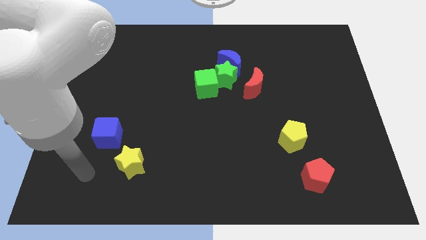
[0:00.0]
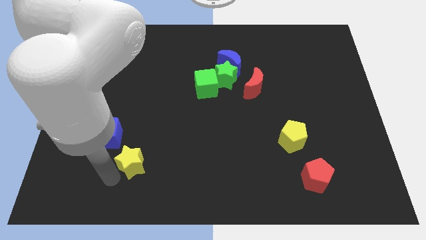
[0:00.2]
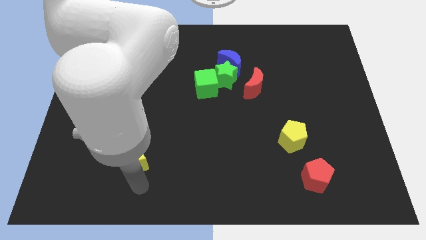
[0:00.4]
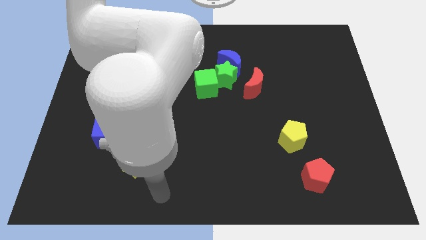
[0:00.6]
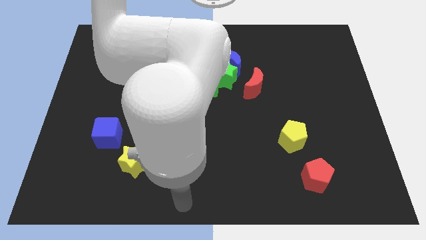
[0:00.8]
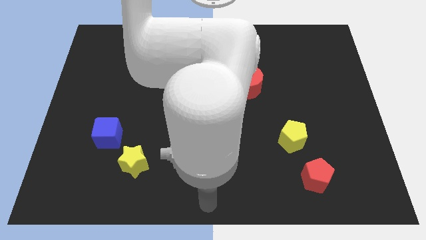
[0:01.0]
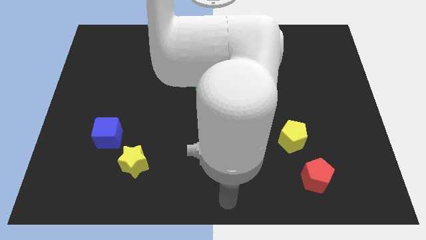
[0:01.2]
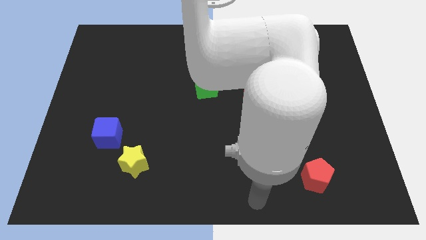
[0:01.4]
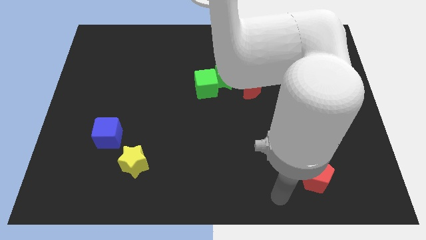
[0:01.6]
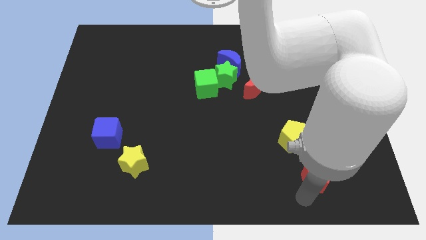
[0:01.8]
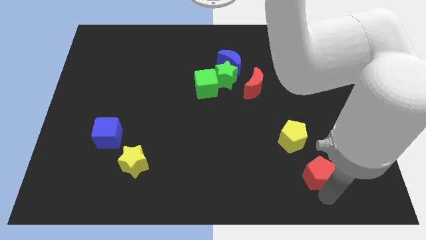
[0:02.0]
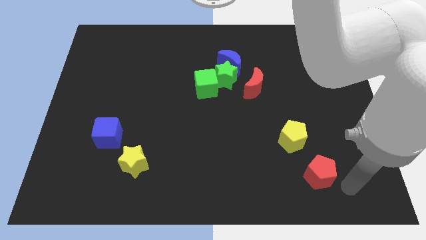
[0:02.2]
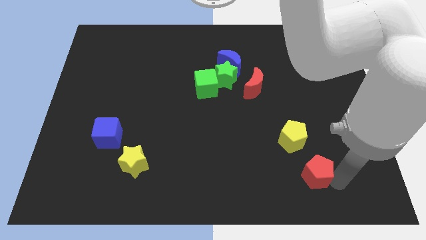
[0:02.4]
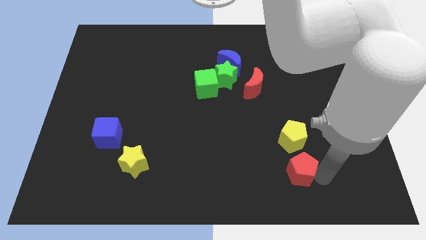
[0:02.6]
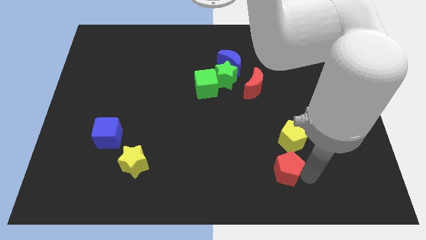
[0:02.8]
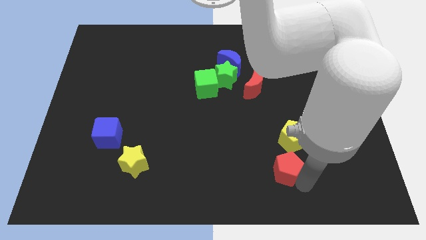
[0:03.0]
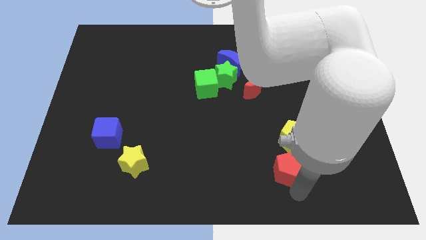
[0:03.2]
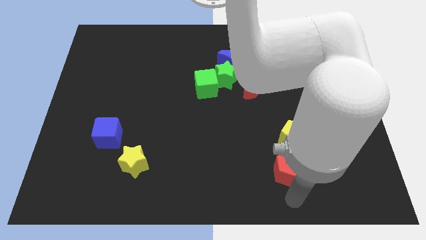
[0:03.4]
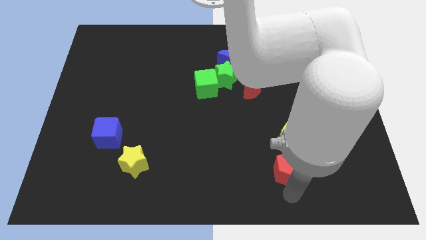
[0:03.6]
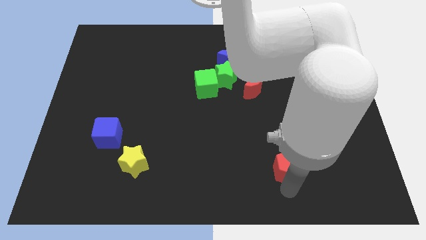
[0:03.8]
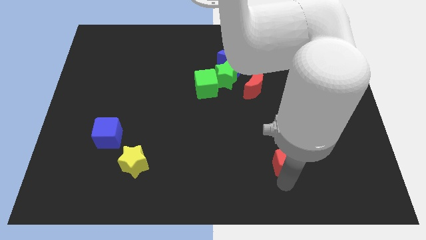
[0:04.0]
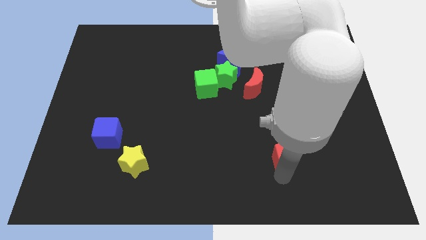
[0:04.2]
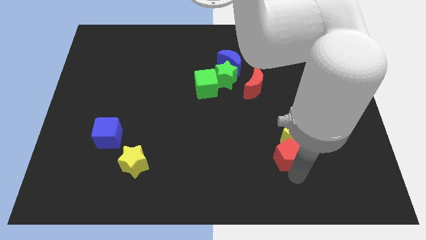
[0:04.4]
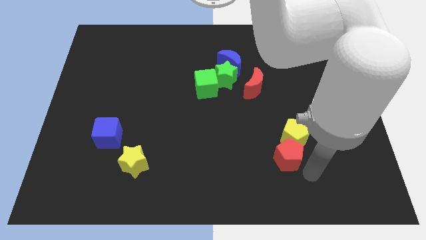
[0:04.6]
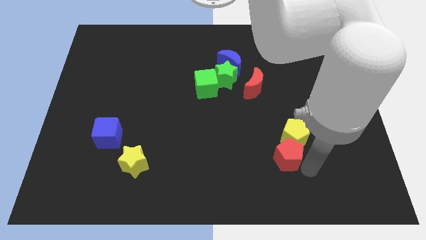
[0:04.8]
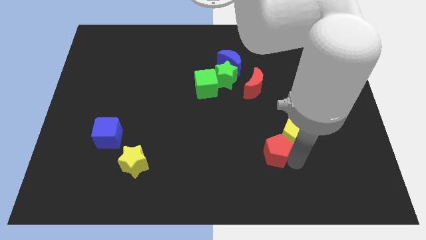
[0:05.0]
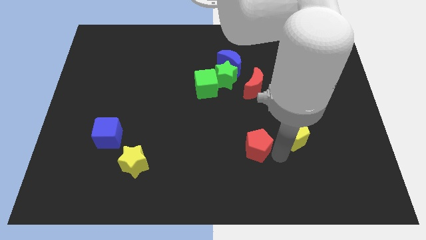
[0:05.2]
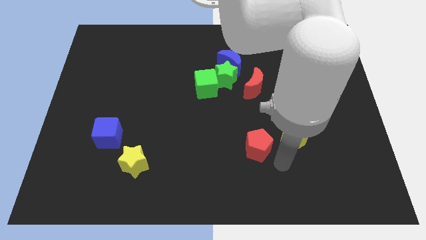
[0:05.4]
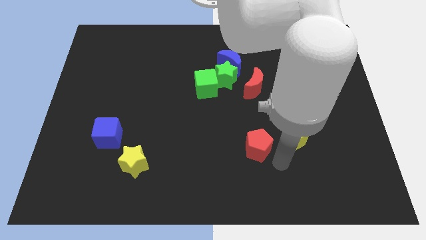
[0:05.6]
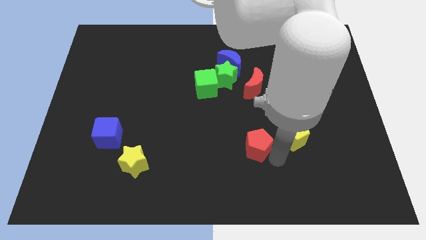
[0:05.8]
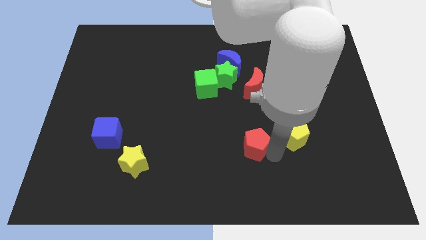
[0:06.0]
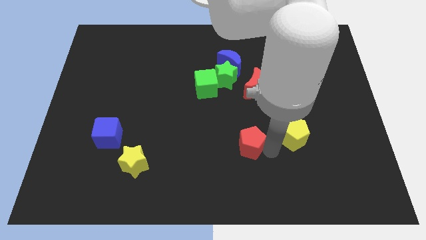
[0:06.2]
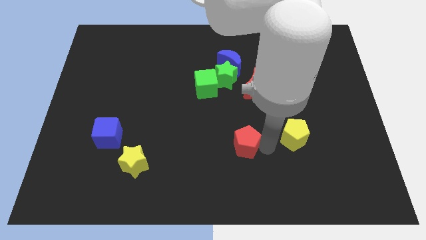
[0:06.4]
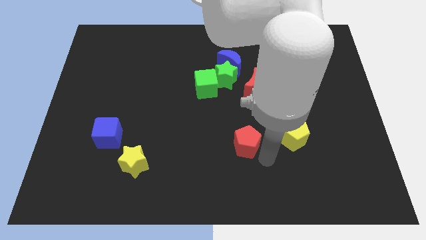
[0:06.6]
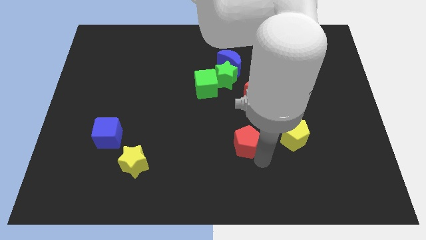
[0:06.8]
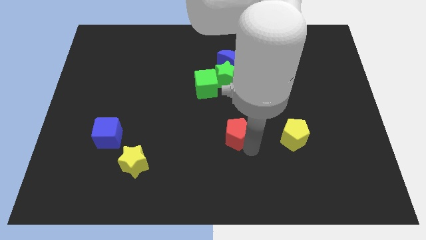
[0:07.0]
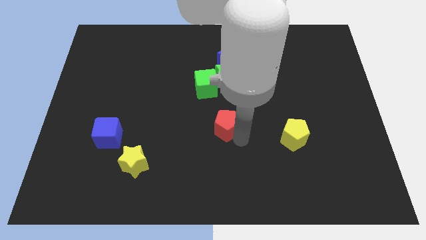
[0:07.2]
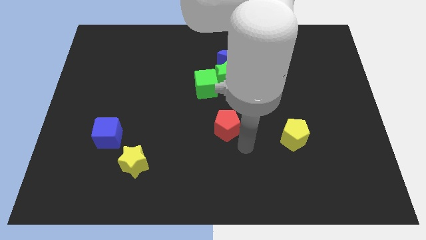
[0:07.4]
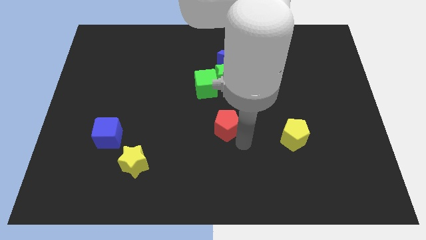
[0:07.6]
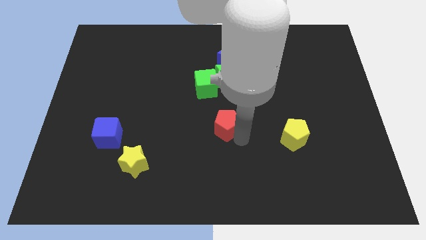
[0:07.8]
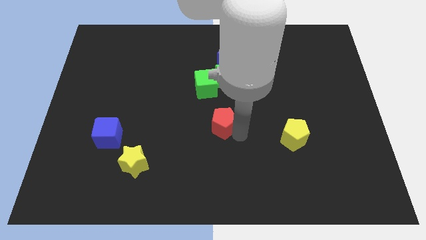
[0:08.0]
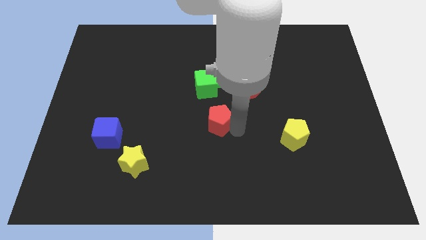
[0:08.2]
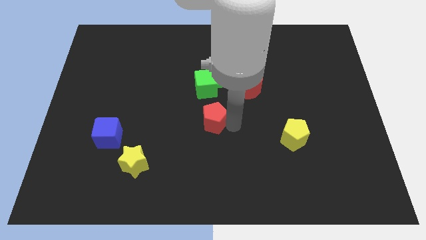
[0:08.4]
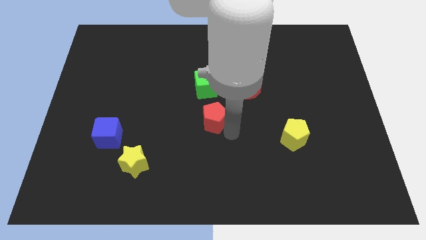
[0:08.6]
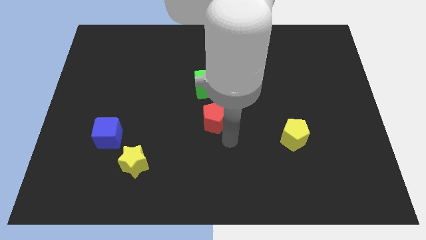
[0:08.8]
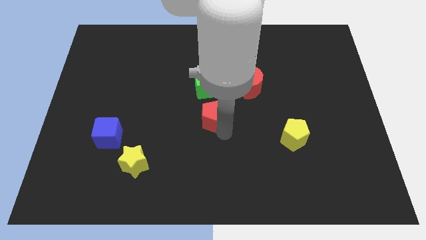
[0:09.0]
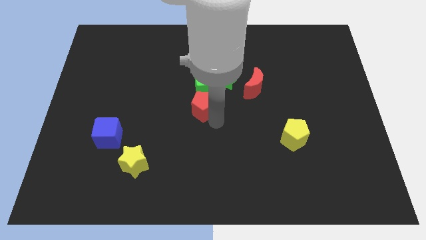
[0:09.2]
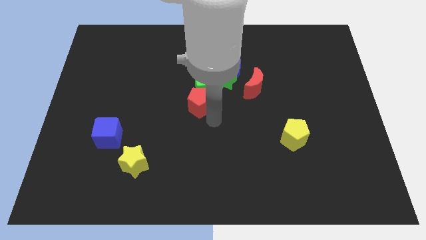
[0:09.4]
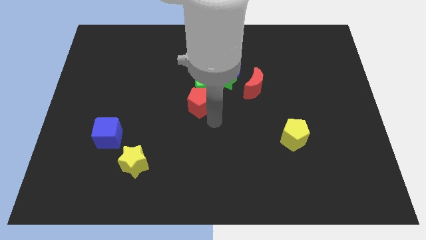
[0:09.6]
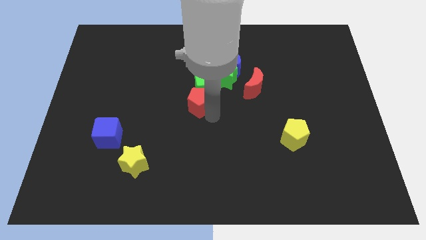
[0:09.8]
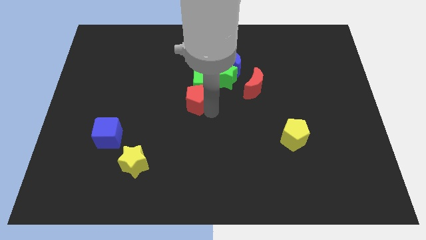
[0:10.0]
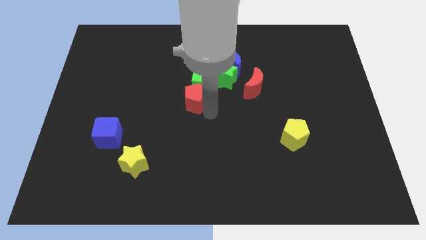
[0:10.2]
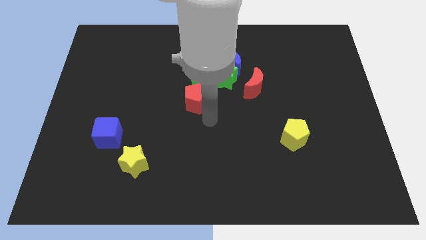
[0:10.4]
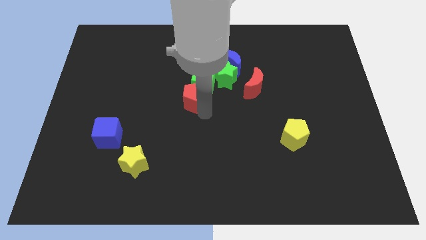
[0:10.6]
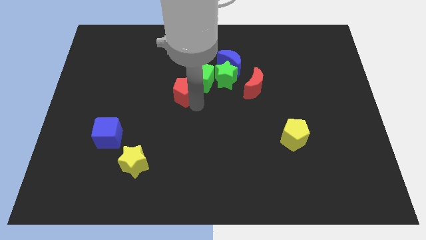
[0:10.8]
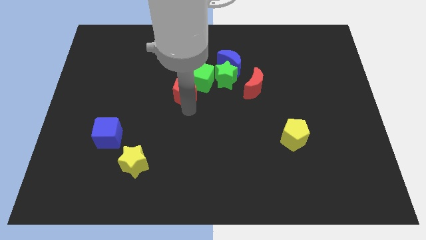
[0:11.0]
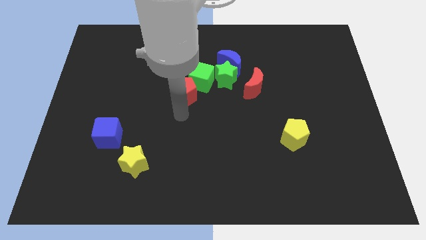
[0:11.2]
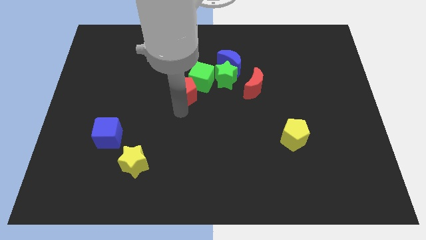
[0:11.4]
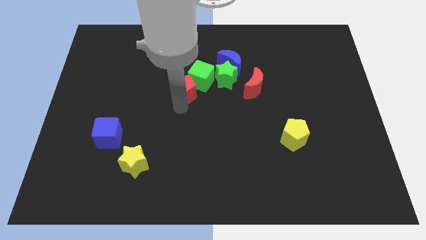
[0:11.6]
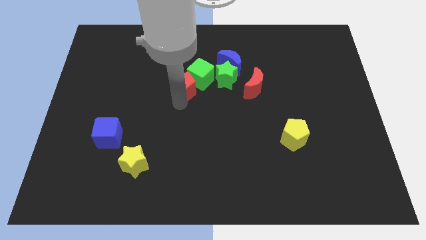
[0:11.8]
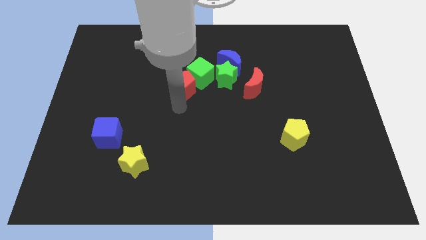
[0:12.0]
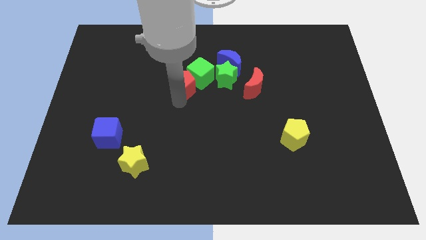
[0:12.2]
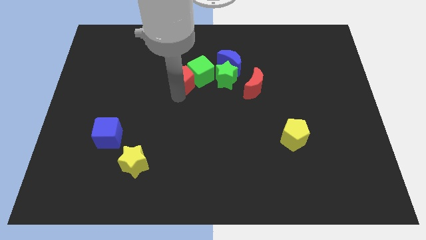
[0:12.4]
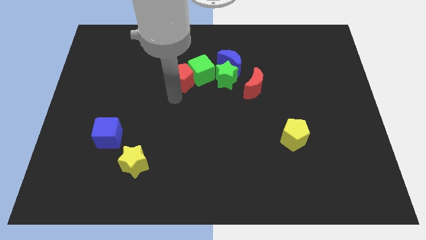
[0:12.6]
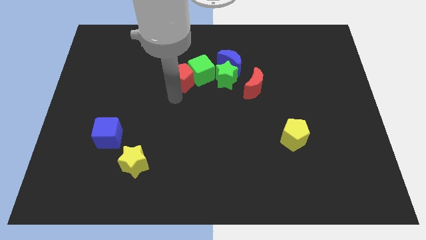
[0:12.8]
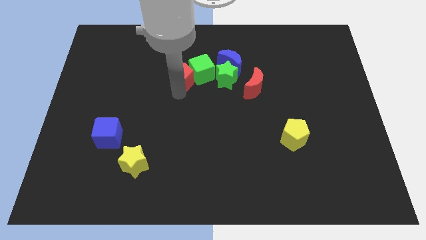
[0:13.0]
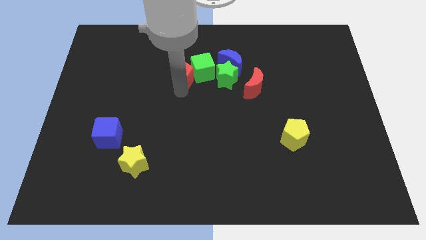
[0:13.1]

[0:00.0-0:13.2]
move the red pentagon left of the blue moon

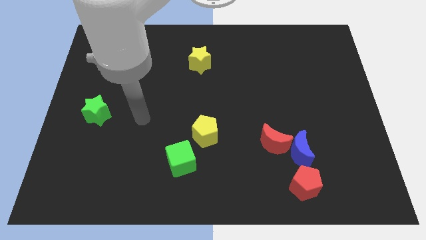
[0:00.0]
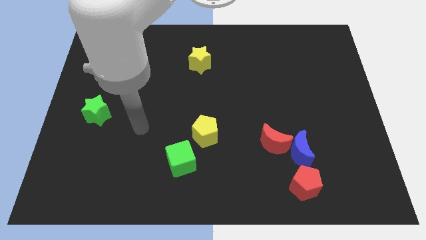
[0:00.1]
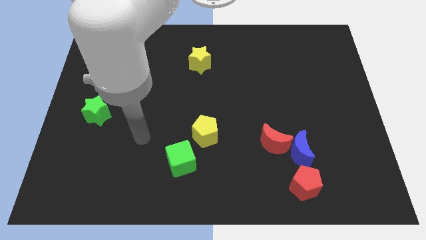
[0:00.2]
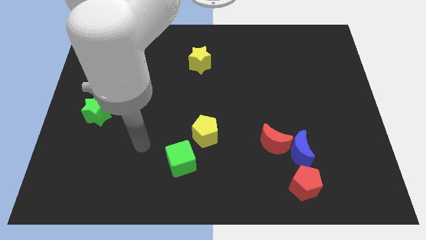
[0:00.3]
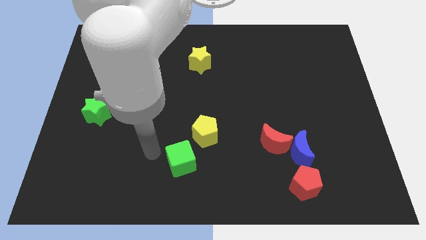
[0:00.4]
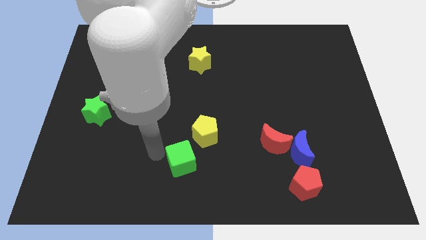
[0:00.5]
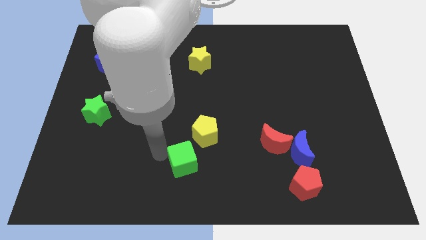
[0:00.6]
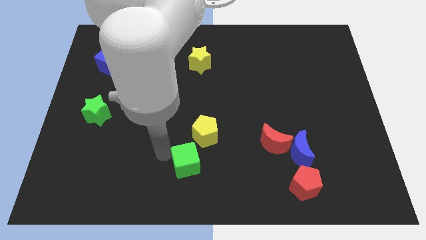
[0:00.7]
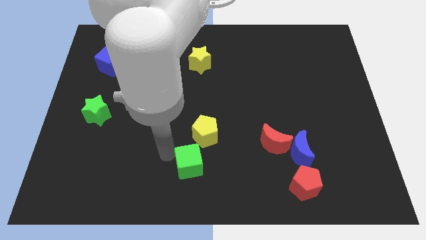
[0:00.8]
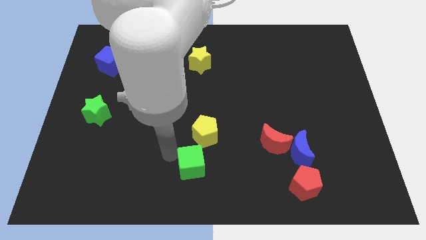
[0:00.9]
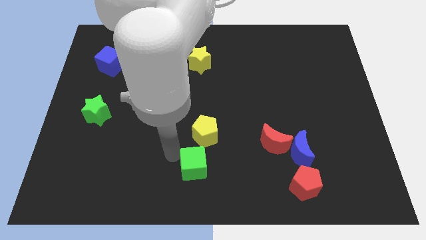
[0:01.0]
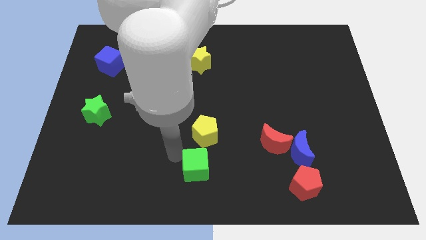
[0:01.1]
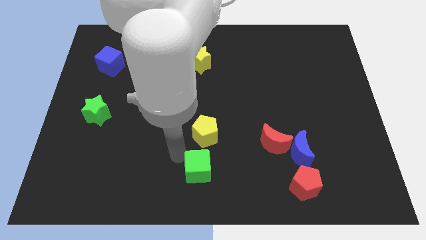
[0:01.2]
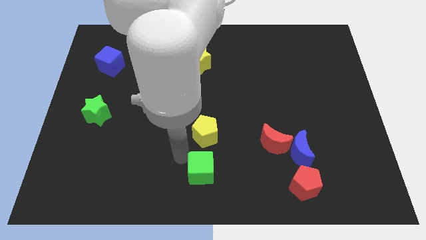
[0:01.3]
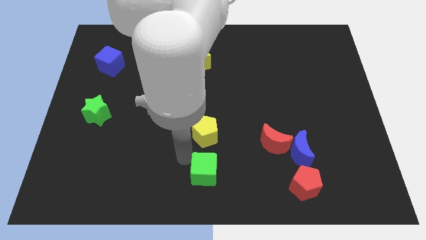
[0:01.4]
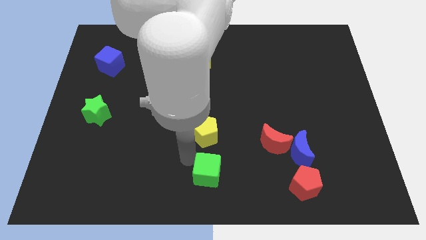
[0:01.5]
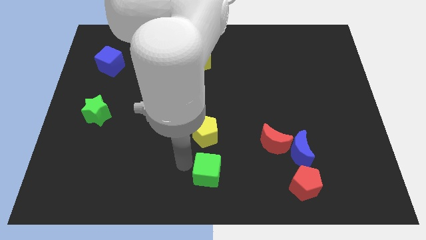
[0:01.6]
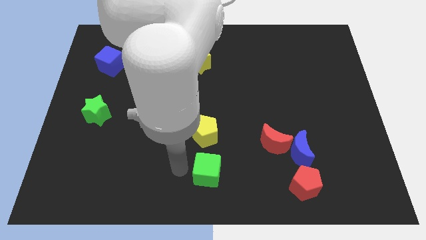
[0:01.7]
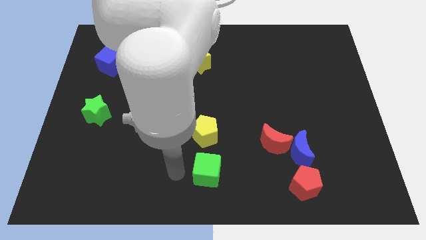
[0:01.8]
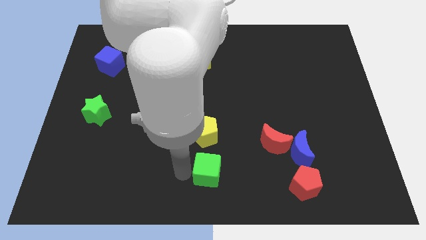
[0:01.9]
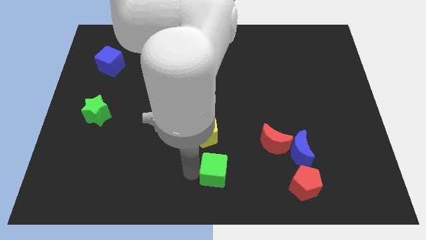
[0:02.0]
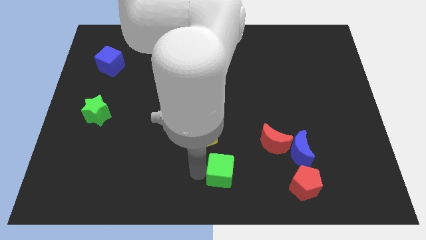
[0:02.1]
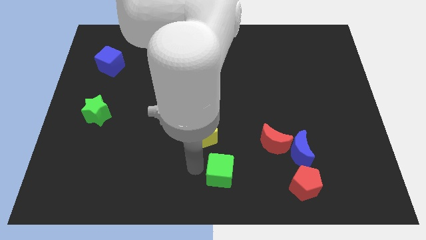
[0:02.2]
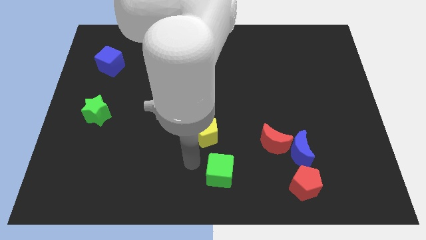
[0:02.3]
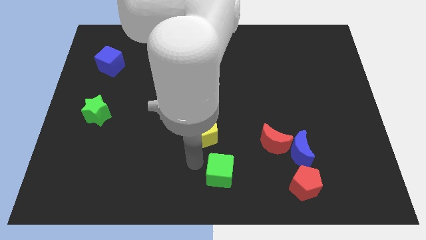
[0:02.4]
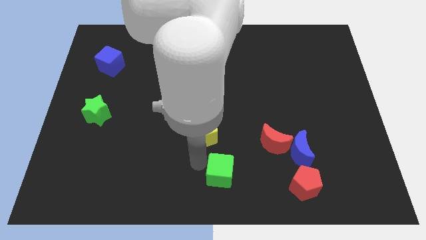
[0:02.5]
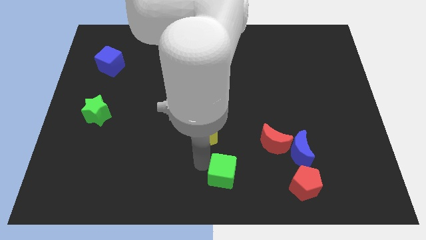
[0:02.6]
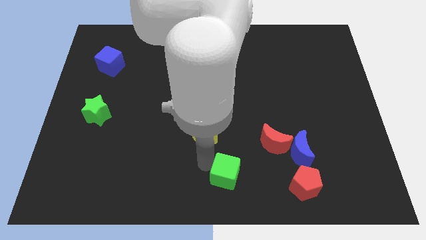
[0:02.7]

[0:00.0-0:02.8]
put the green cube left of the red pentagon
